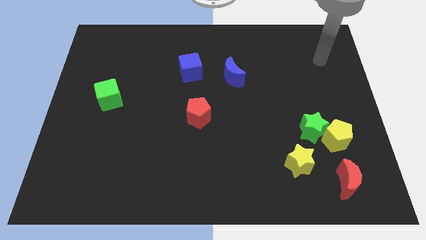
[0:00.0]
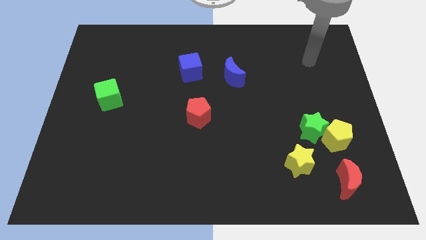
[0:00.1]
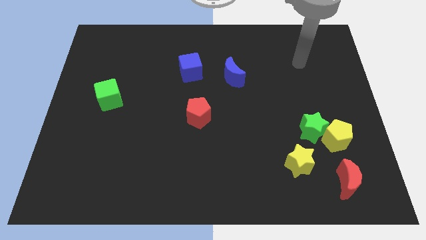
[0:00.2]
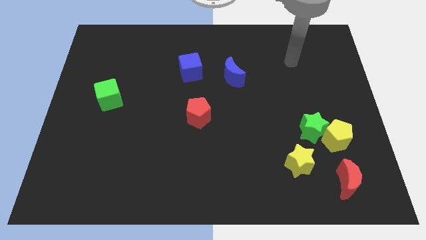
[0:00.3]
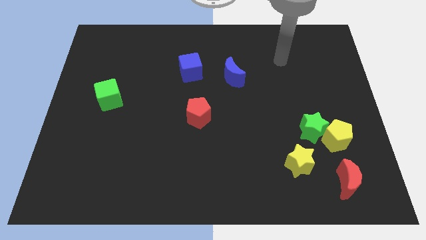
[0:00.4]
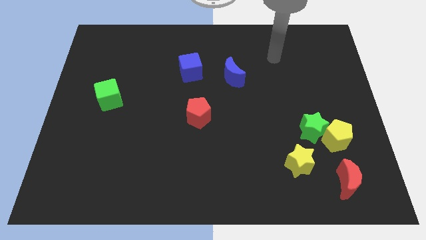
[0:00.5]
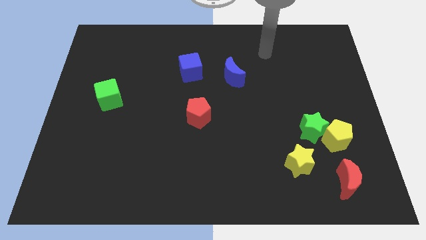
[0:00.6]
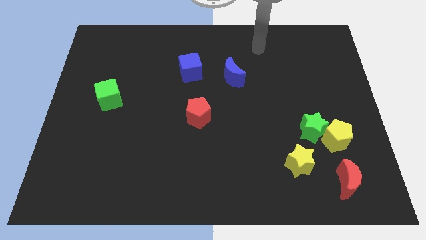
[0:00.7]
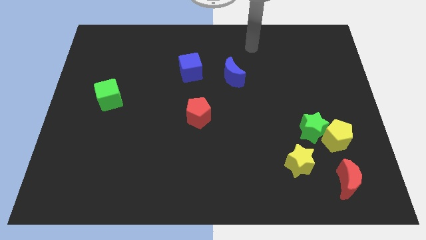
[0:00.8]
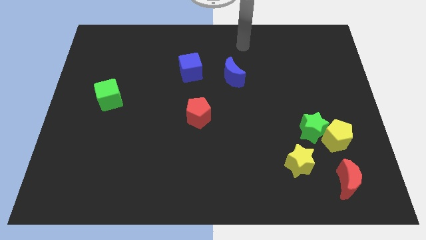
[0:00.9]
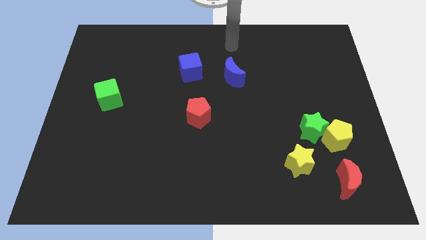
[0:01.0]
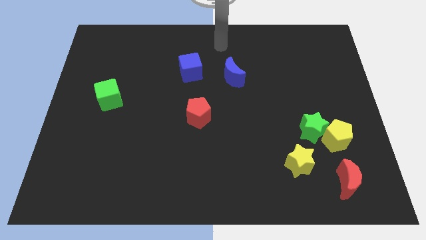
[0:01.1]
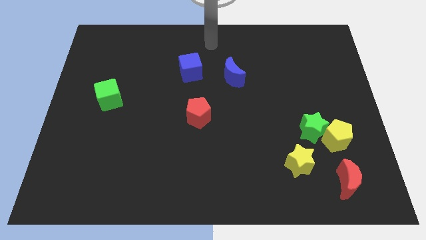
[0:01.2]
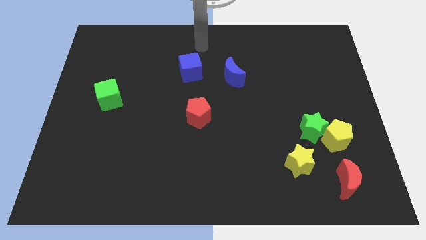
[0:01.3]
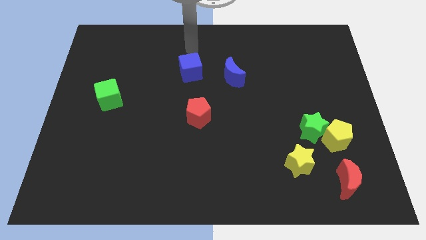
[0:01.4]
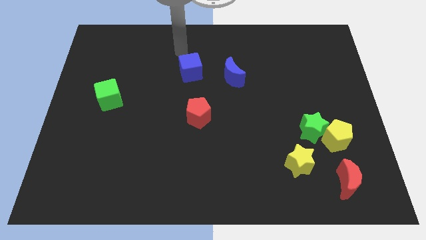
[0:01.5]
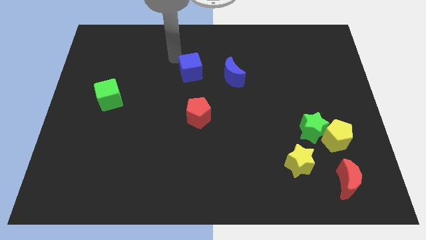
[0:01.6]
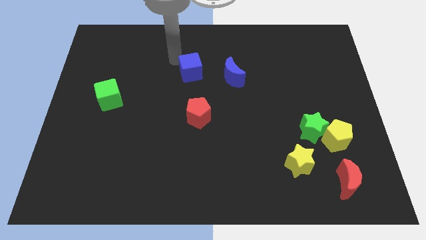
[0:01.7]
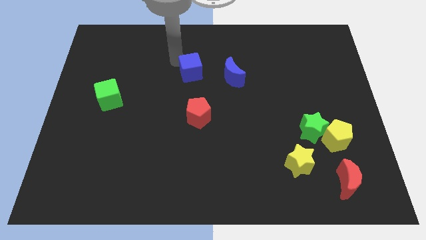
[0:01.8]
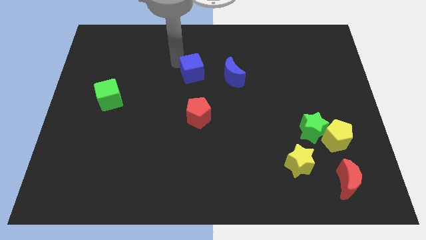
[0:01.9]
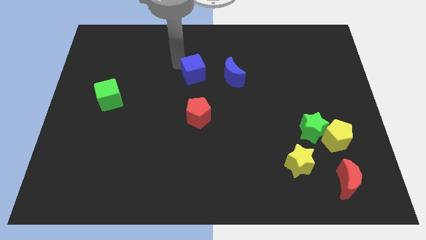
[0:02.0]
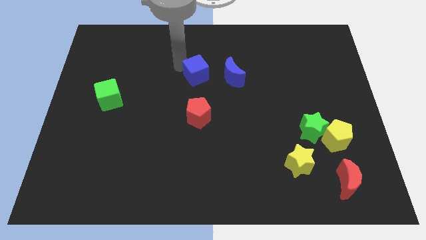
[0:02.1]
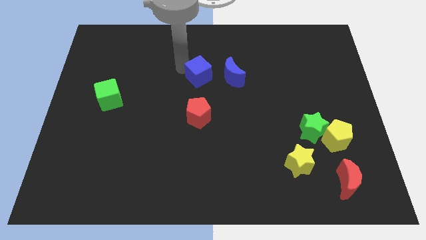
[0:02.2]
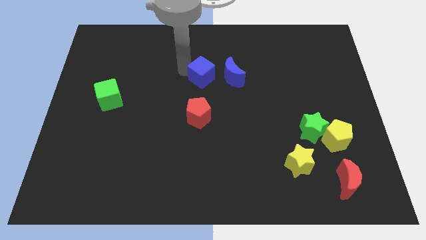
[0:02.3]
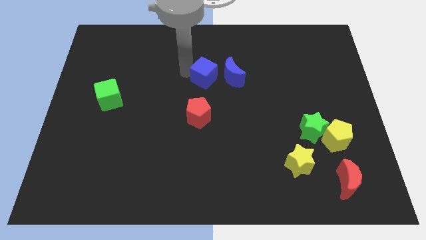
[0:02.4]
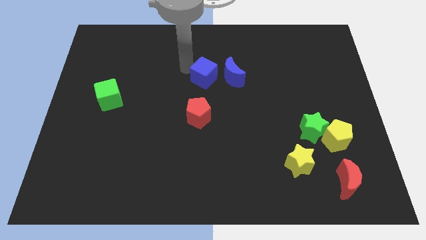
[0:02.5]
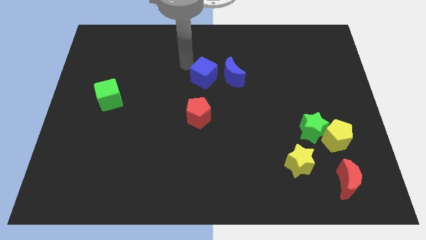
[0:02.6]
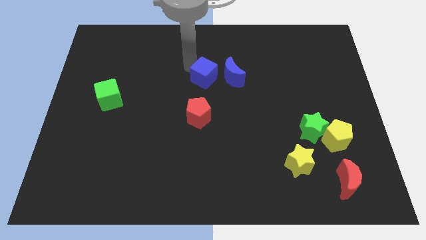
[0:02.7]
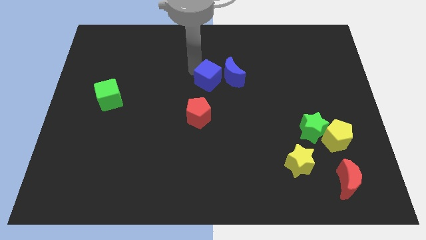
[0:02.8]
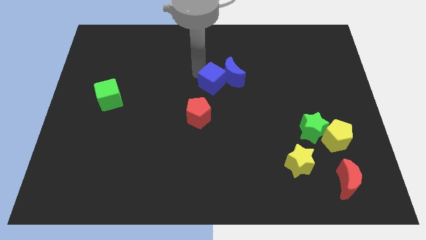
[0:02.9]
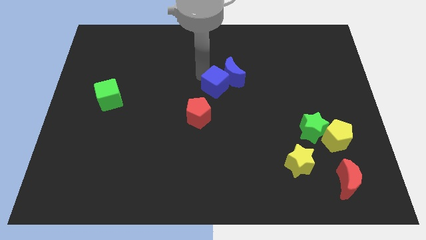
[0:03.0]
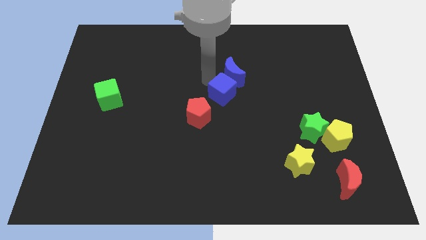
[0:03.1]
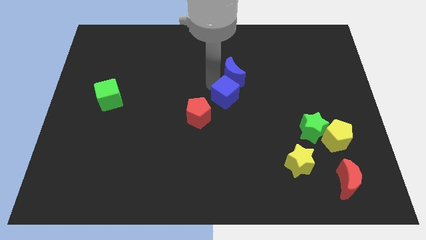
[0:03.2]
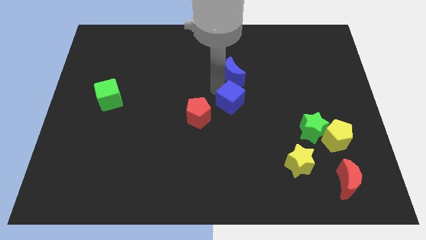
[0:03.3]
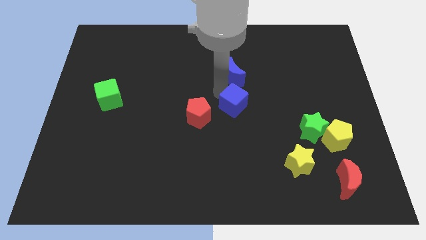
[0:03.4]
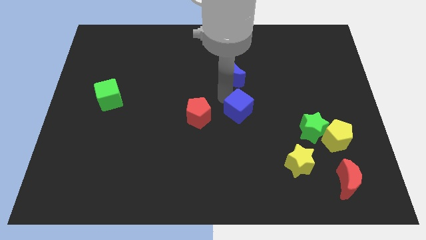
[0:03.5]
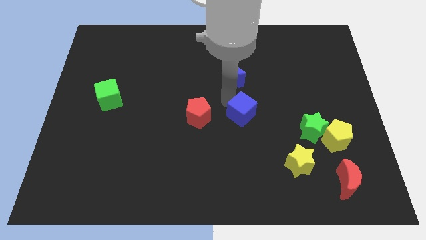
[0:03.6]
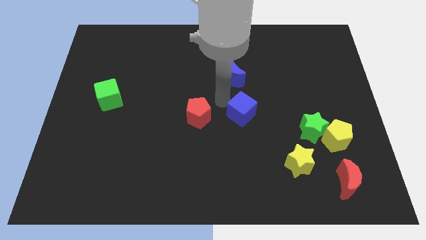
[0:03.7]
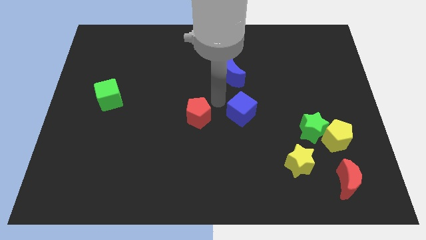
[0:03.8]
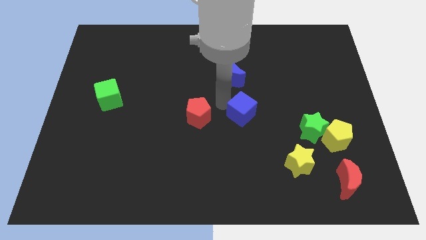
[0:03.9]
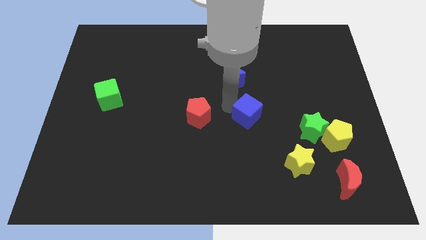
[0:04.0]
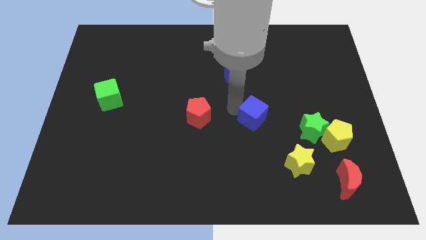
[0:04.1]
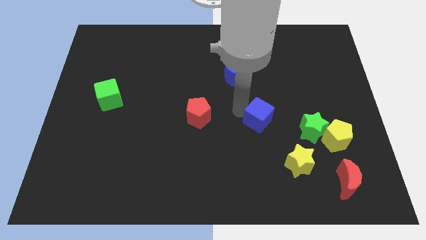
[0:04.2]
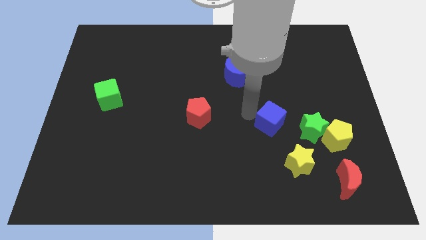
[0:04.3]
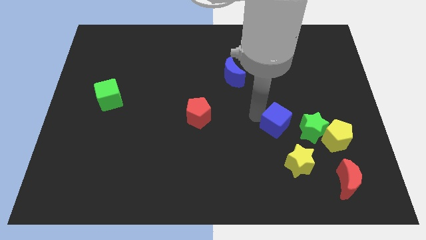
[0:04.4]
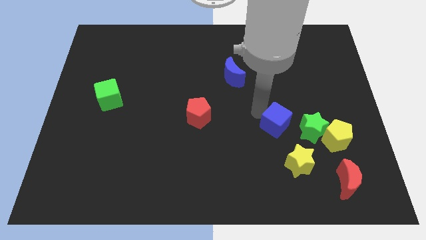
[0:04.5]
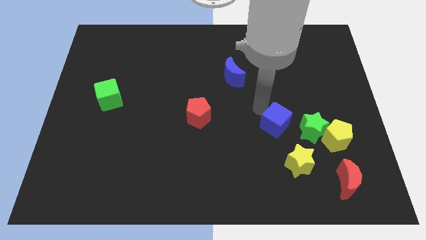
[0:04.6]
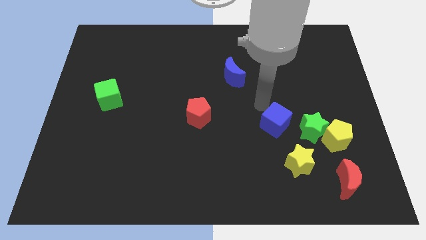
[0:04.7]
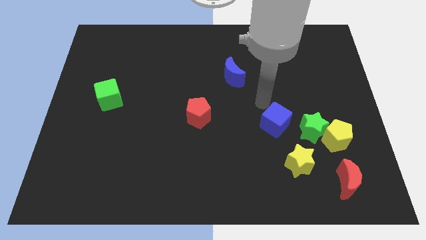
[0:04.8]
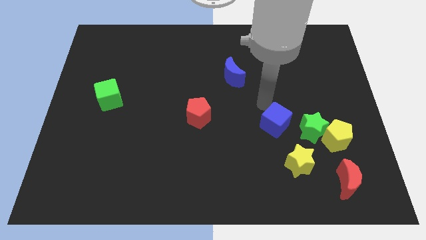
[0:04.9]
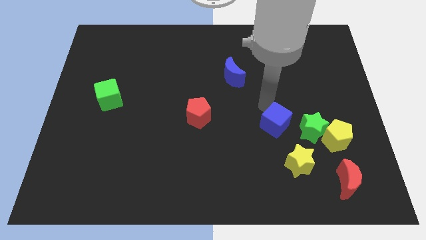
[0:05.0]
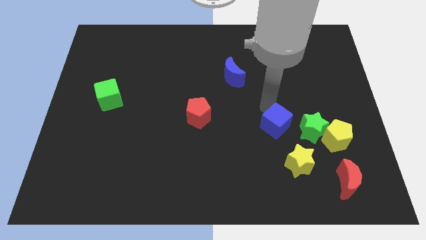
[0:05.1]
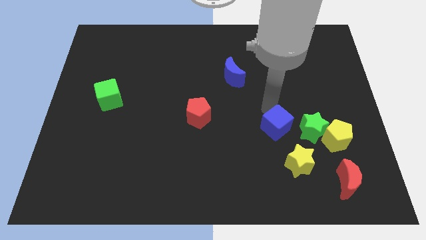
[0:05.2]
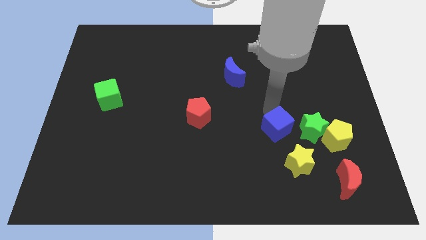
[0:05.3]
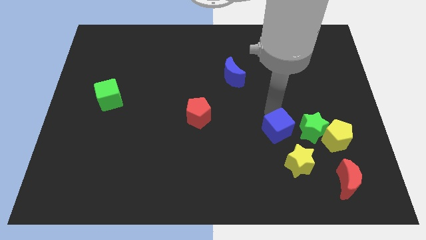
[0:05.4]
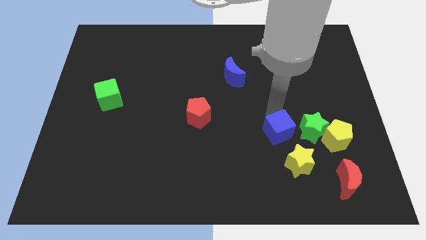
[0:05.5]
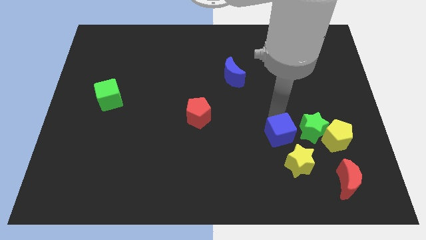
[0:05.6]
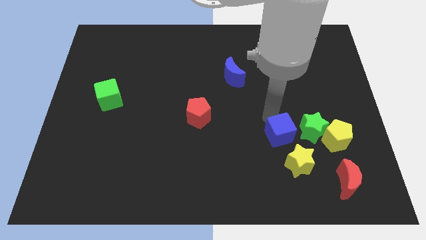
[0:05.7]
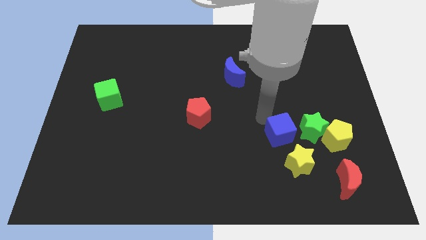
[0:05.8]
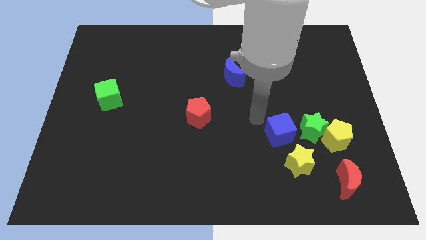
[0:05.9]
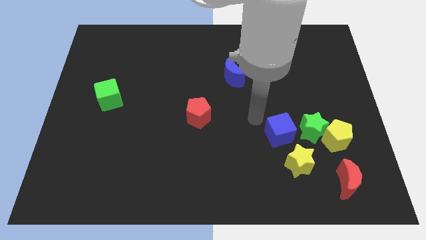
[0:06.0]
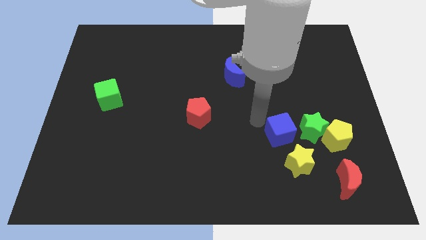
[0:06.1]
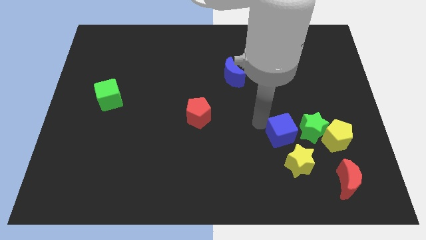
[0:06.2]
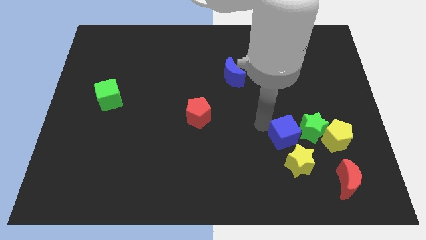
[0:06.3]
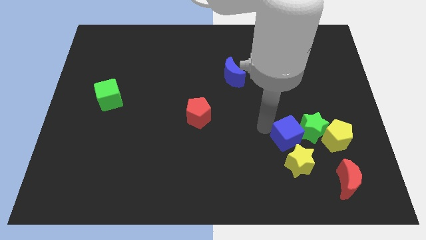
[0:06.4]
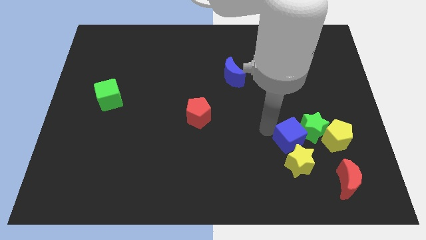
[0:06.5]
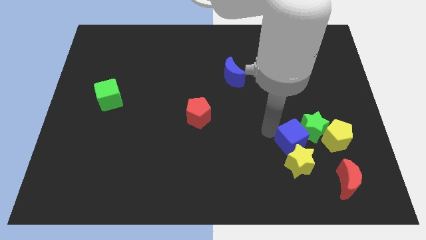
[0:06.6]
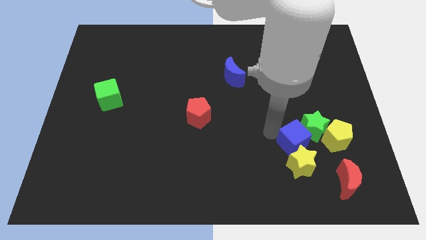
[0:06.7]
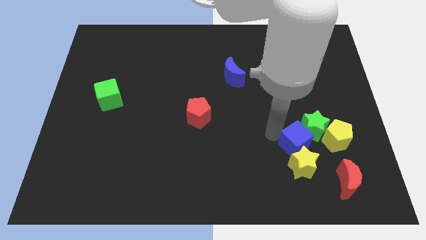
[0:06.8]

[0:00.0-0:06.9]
put the blue cube to the bottom side of the green star

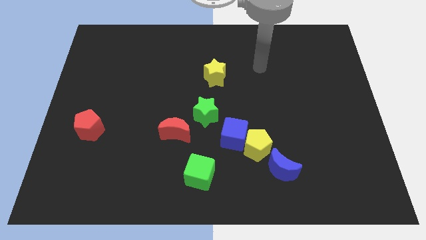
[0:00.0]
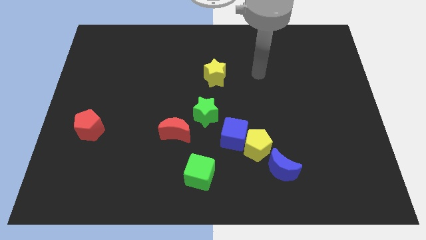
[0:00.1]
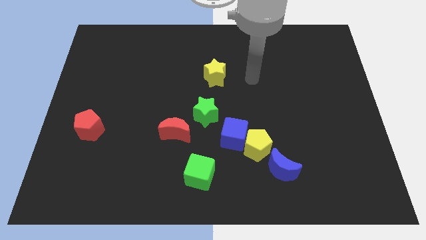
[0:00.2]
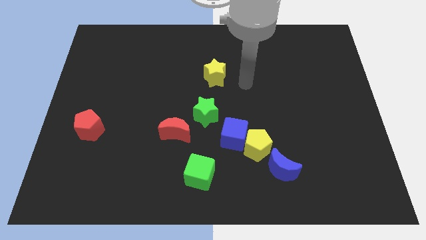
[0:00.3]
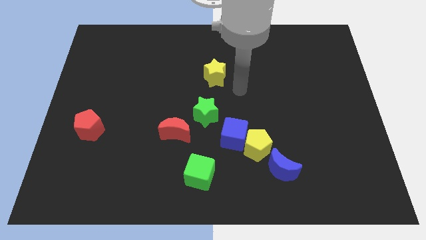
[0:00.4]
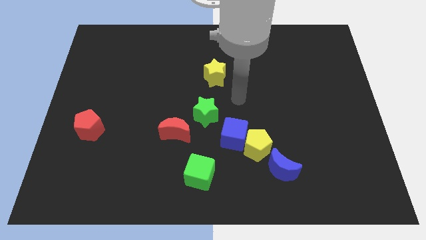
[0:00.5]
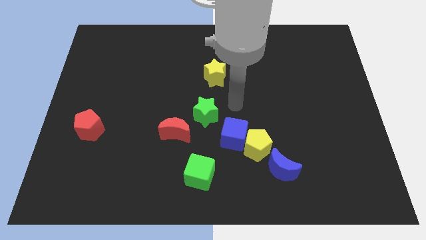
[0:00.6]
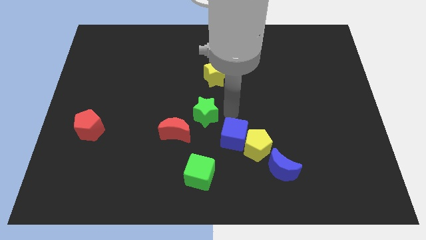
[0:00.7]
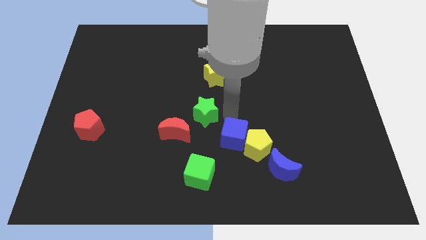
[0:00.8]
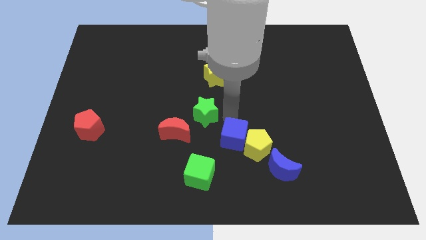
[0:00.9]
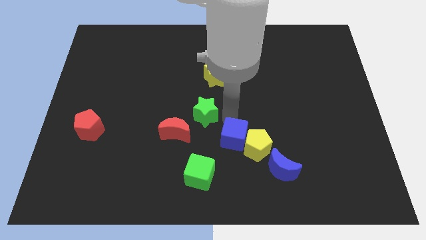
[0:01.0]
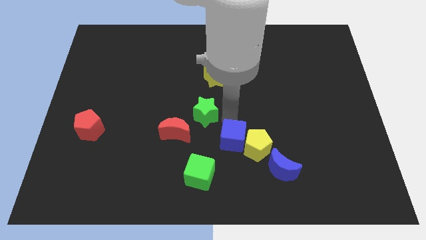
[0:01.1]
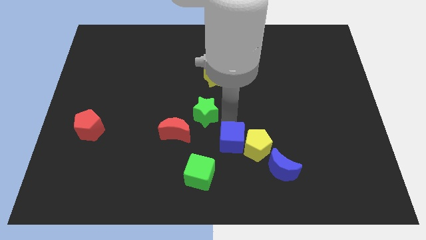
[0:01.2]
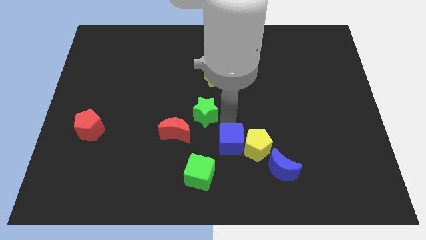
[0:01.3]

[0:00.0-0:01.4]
put the blue cube to the bottom left side of the yellow pentagon
